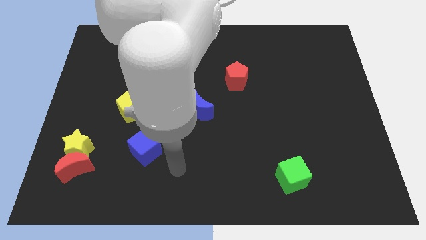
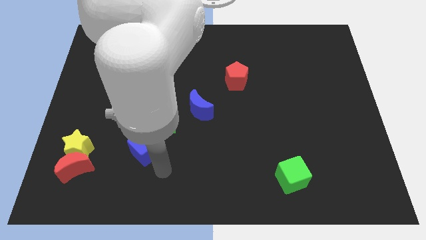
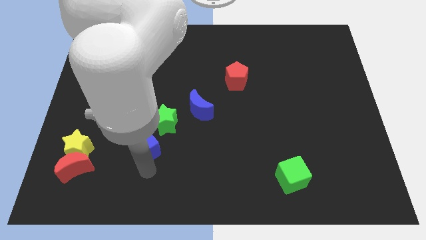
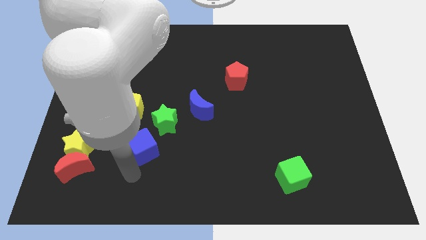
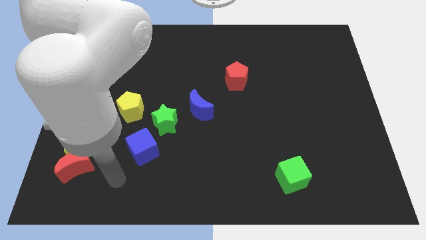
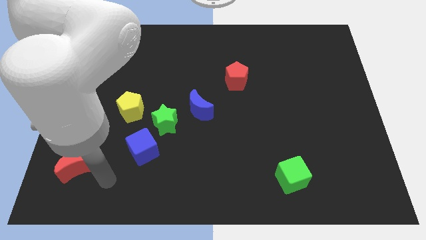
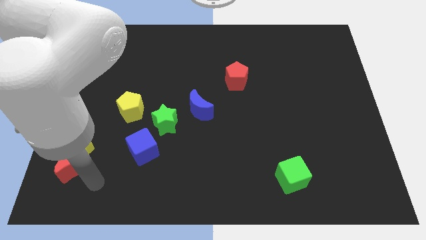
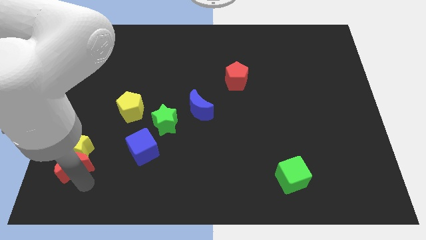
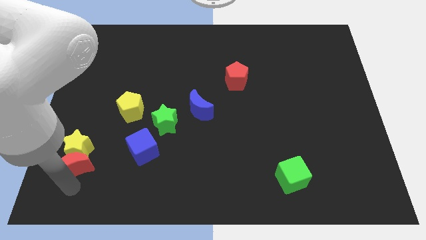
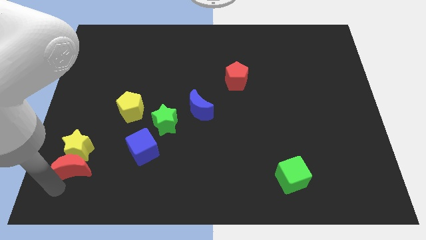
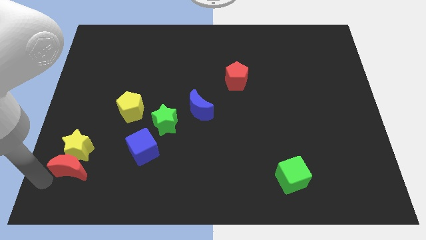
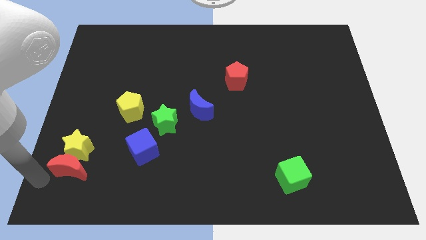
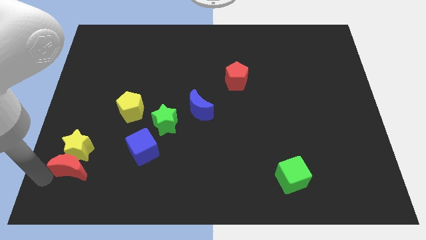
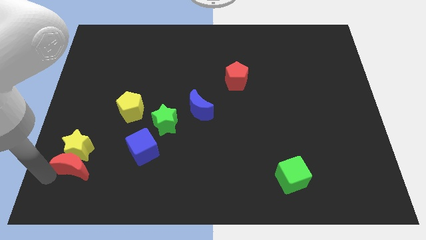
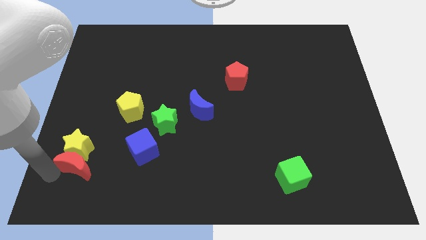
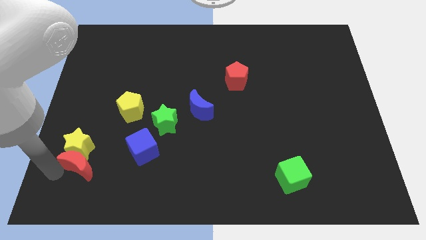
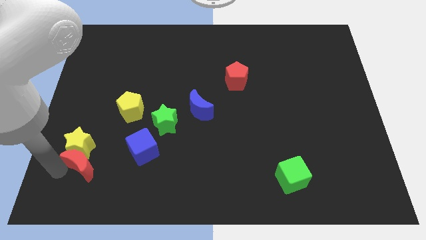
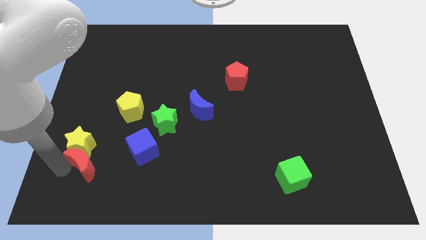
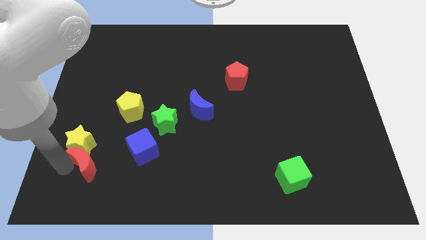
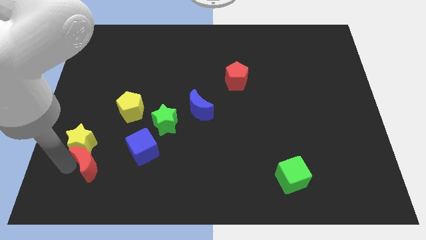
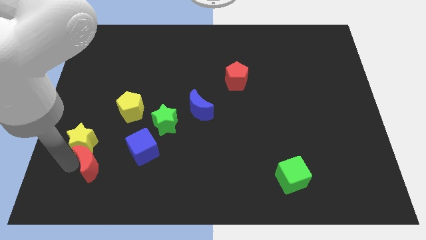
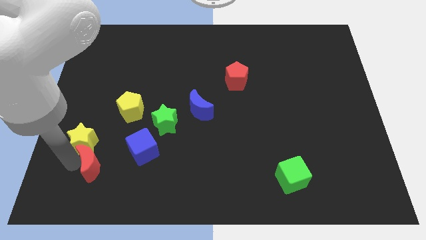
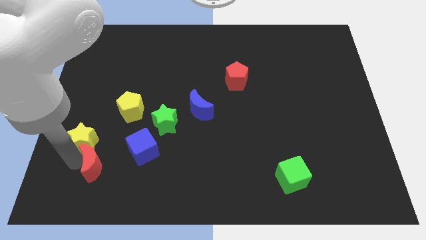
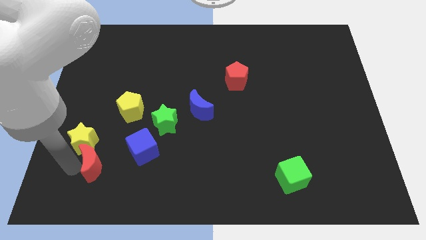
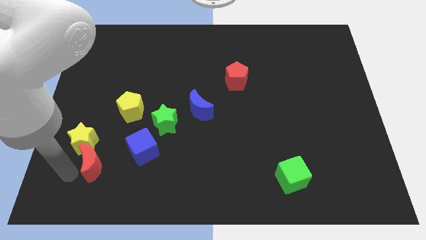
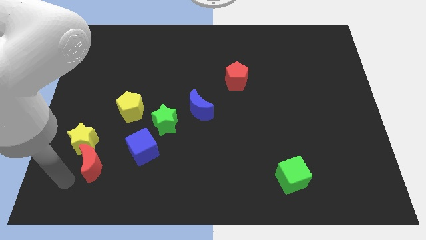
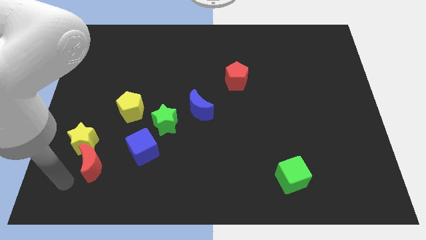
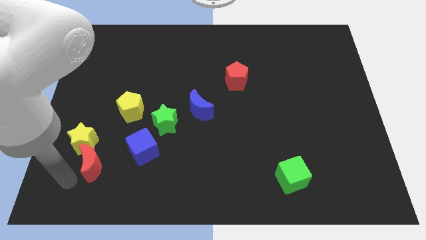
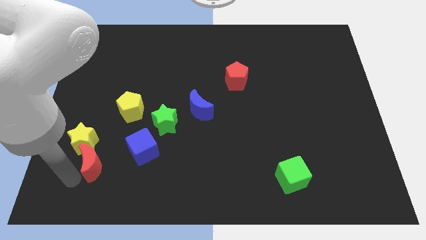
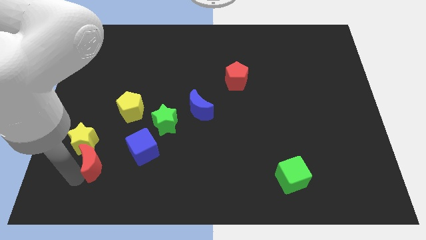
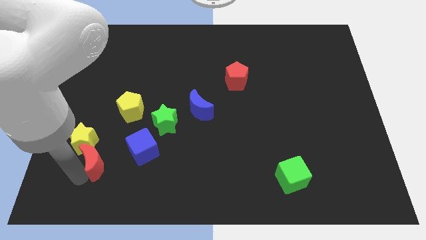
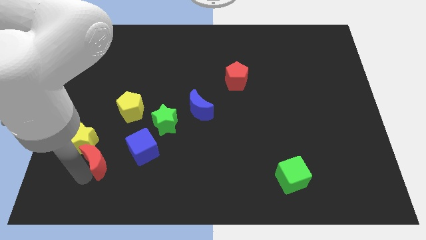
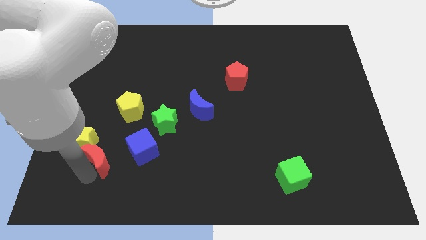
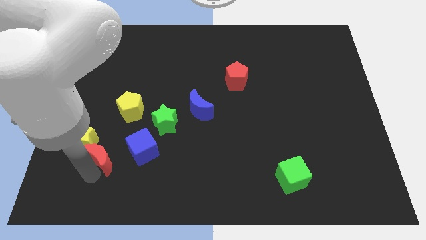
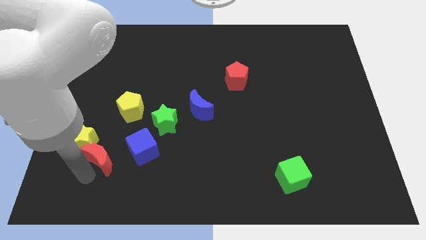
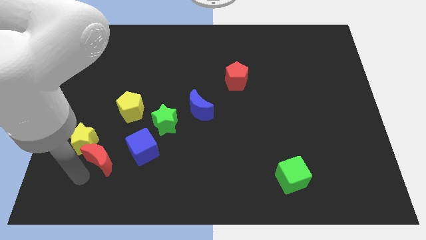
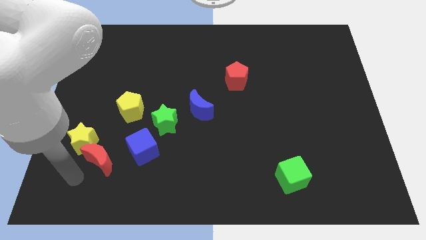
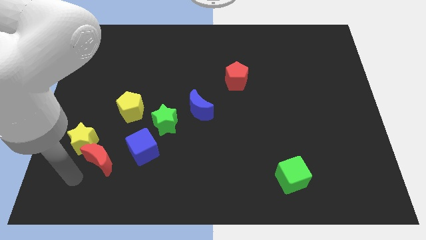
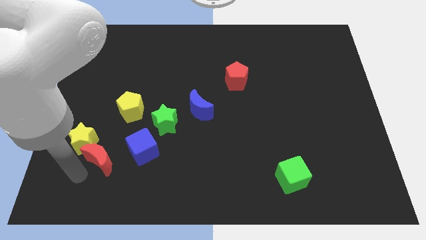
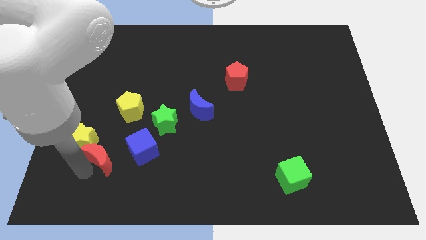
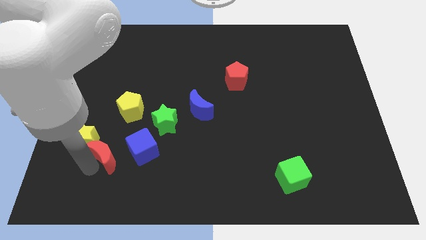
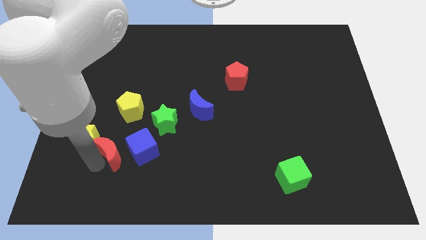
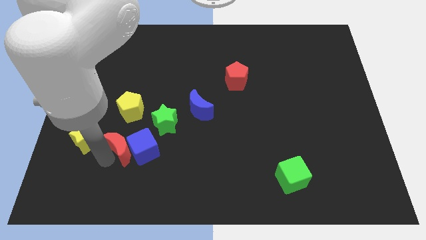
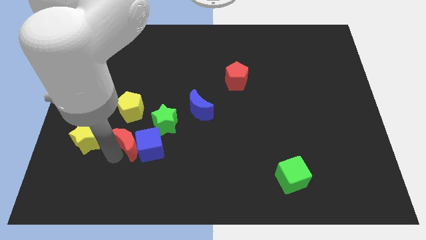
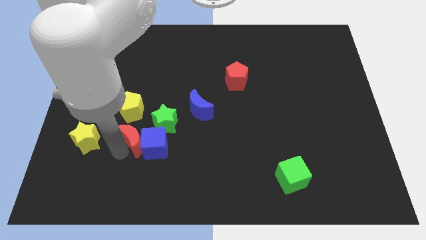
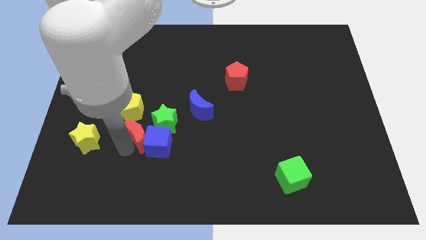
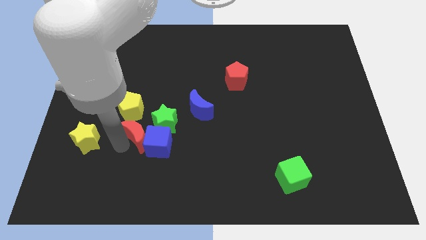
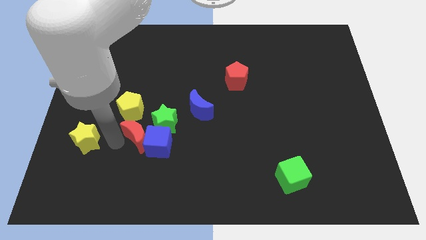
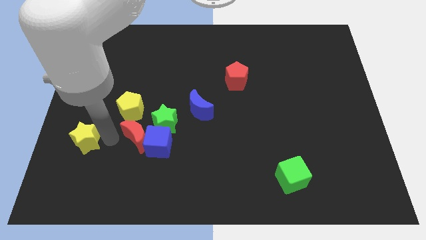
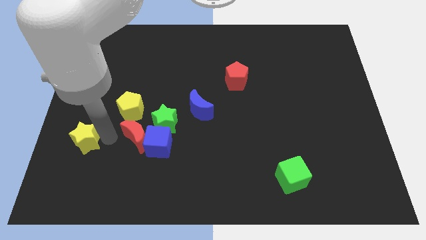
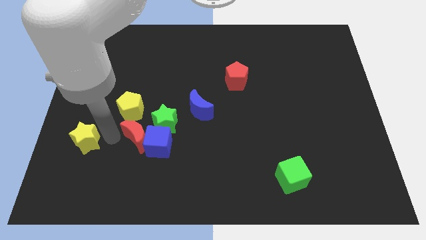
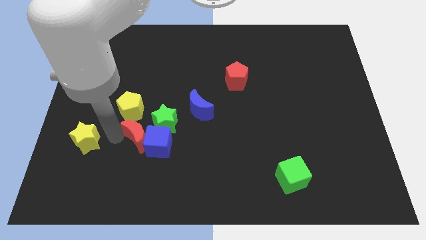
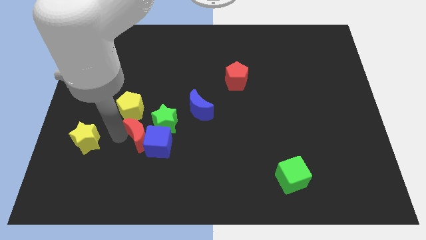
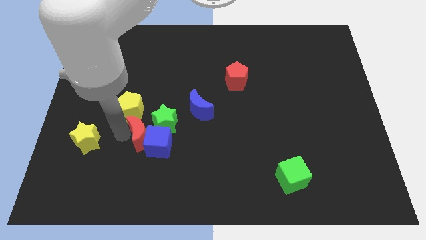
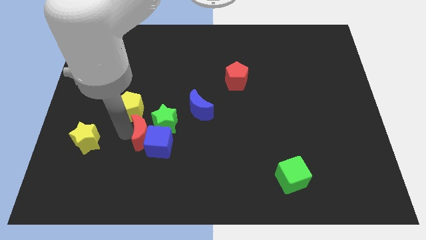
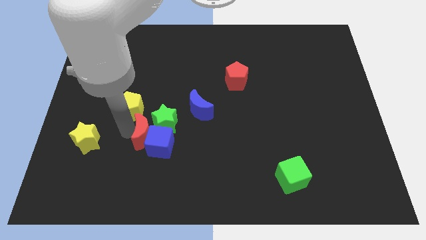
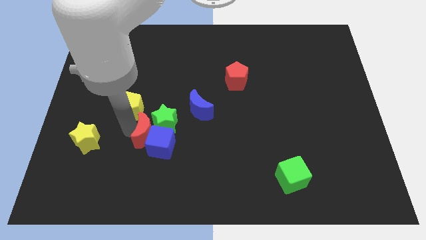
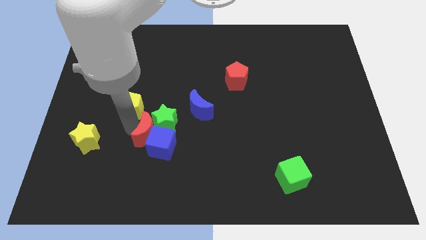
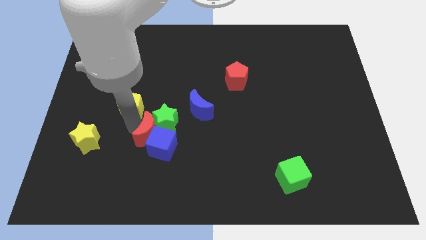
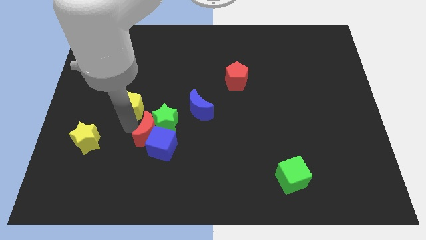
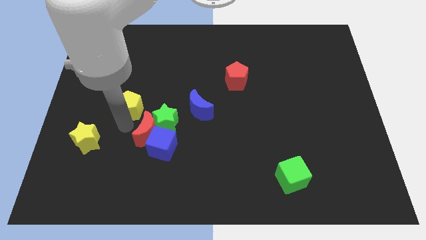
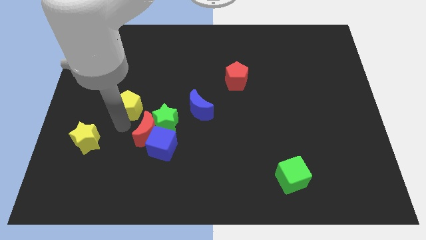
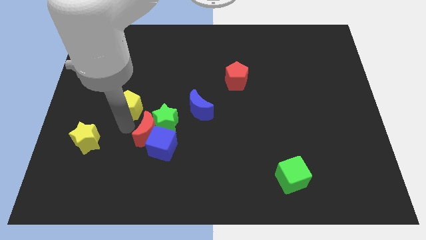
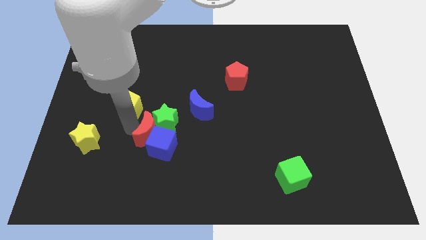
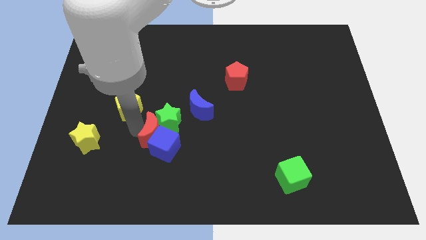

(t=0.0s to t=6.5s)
slide the red moon to the bottom left of the blue moon

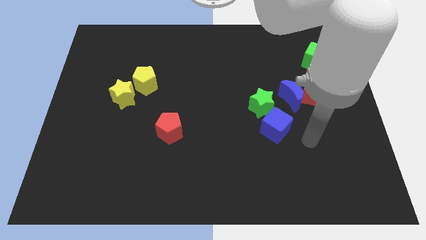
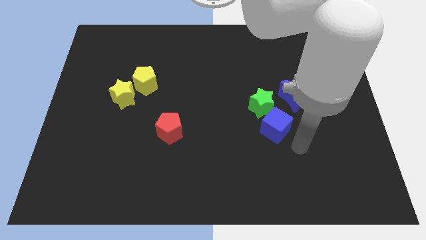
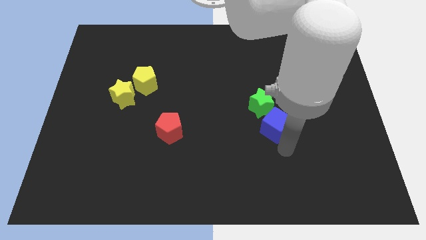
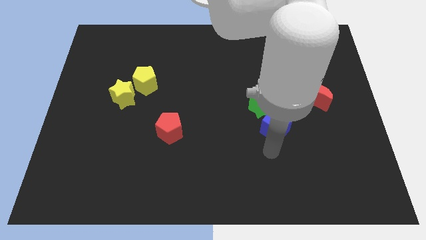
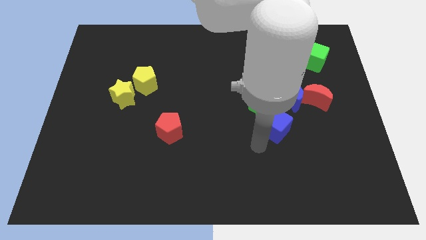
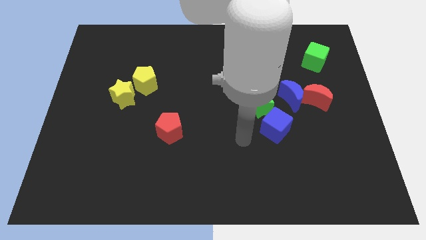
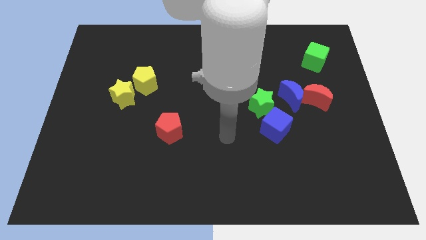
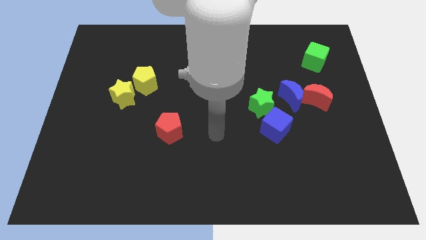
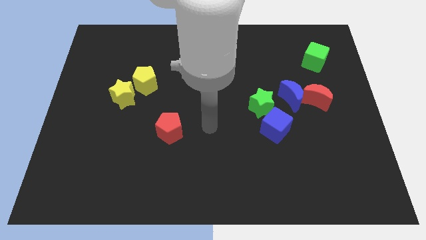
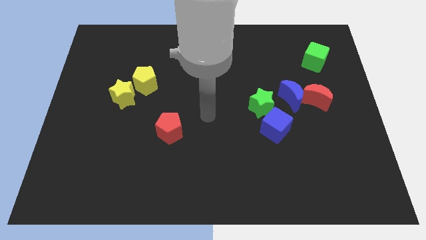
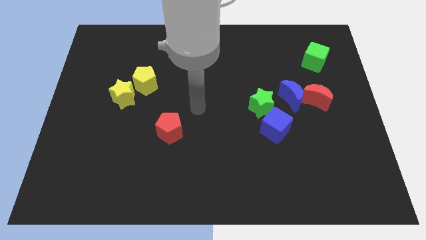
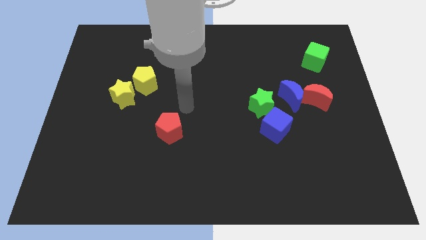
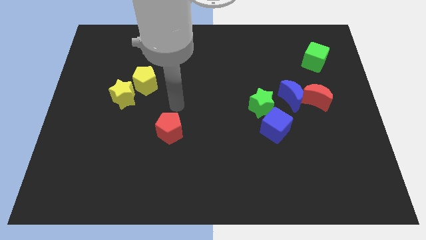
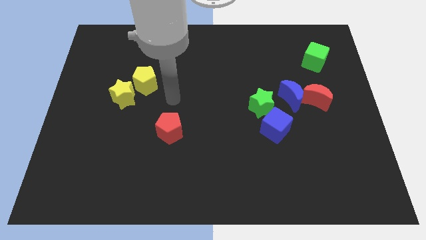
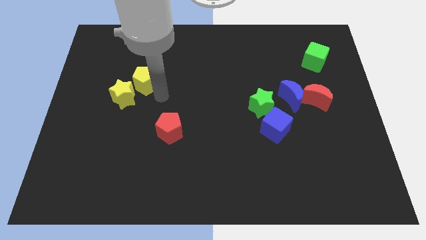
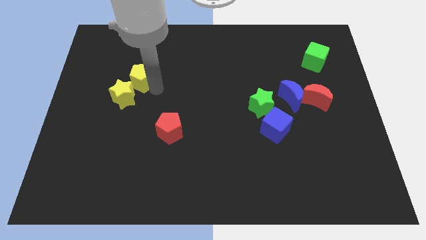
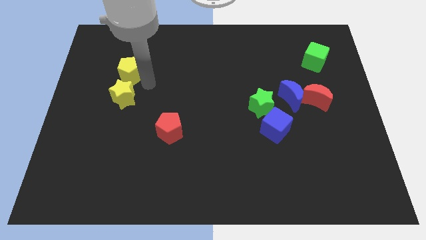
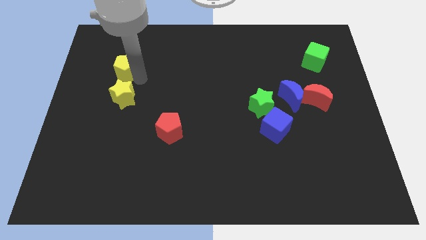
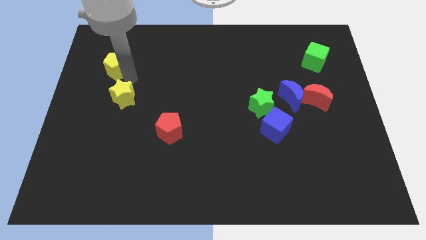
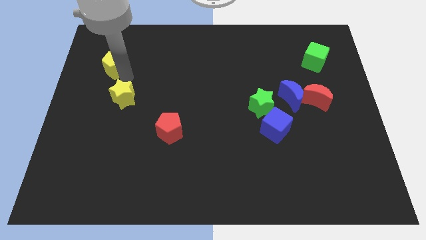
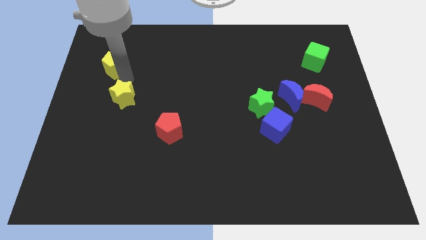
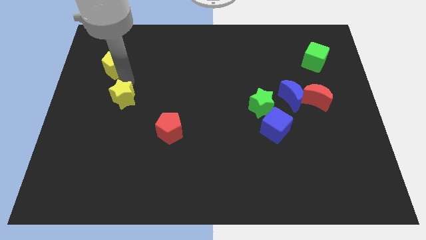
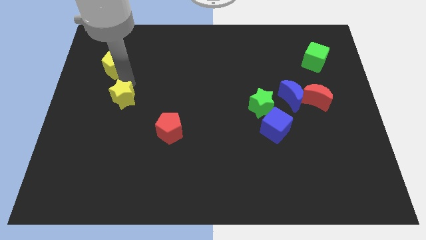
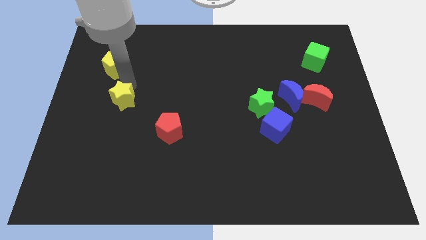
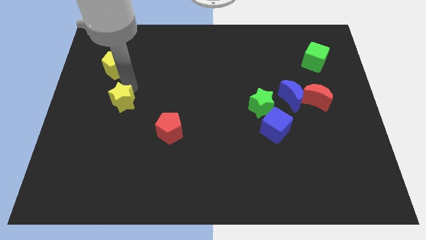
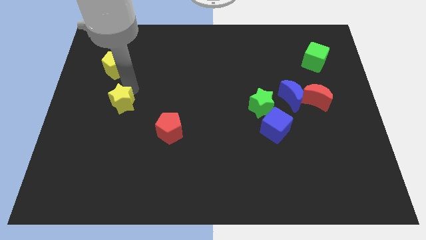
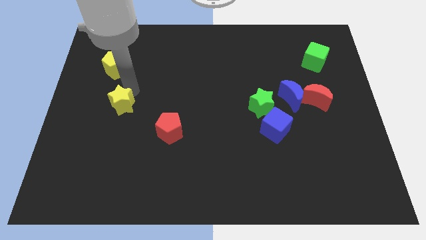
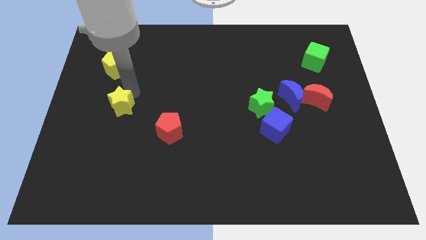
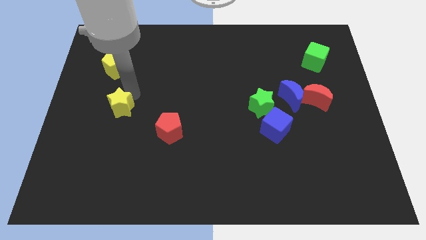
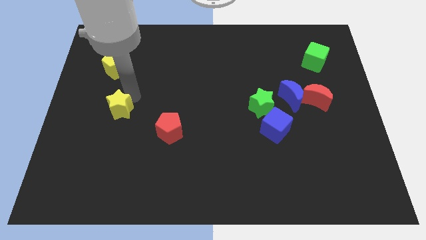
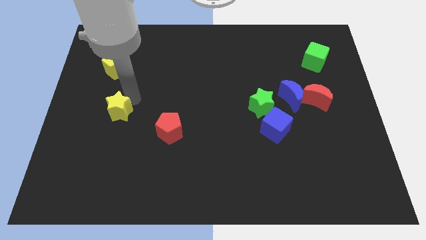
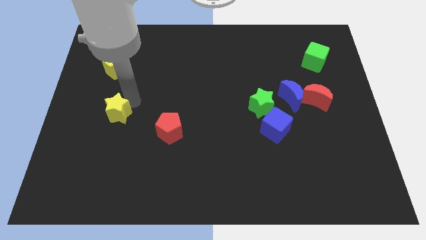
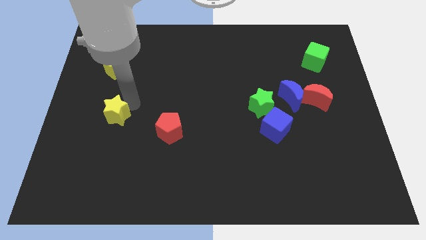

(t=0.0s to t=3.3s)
slide the yellow star to the left side of the red pentagon
